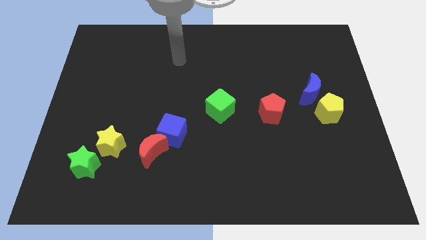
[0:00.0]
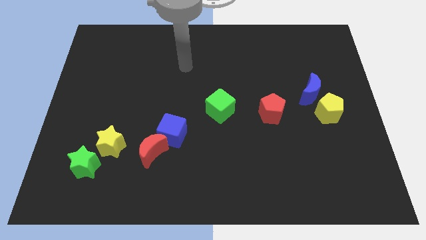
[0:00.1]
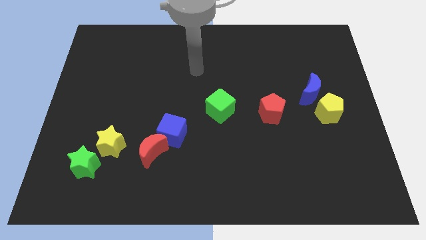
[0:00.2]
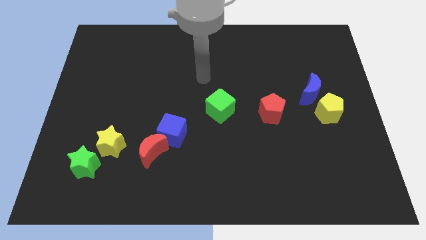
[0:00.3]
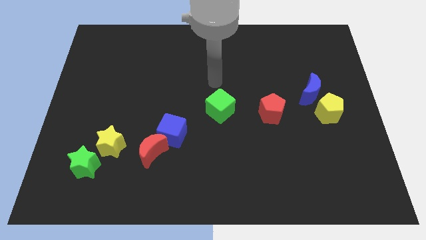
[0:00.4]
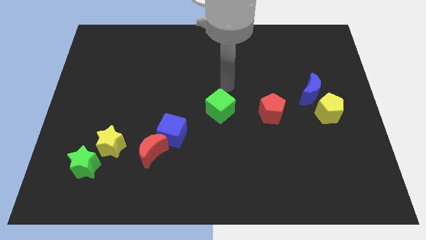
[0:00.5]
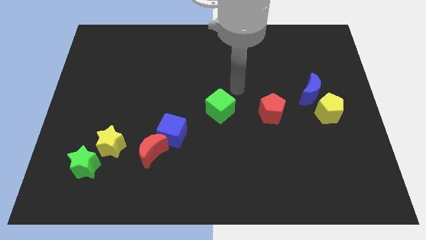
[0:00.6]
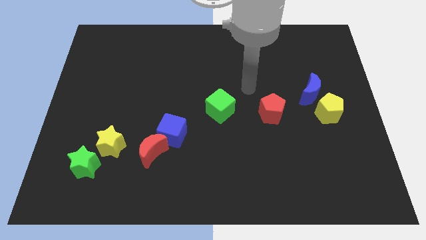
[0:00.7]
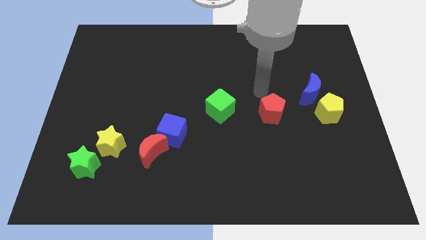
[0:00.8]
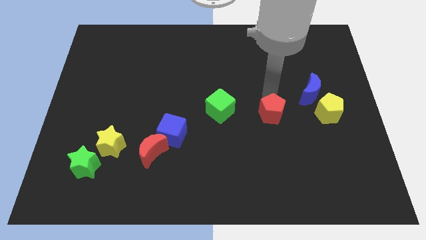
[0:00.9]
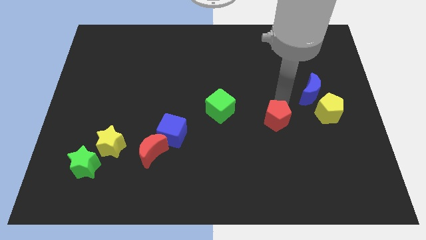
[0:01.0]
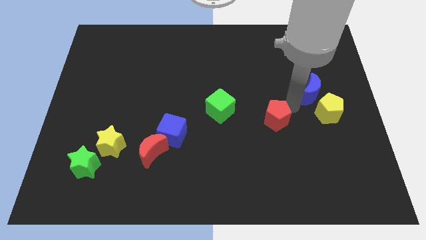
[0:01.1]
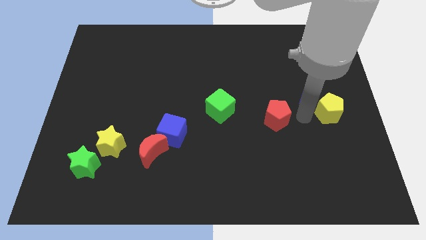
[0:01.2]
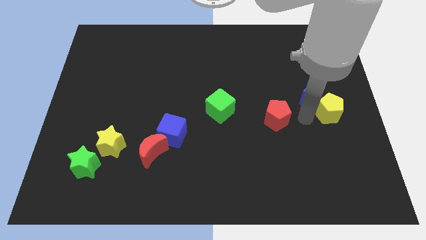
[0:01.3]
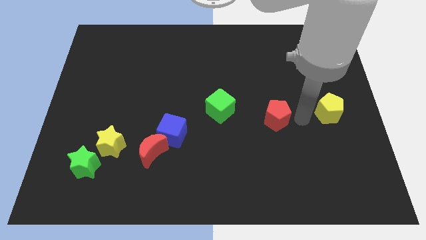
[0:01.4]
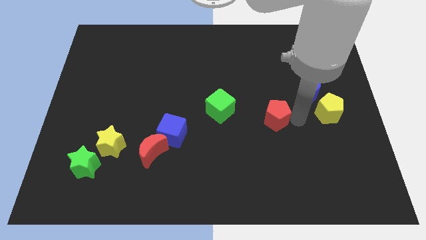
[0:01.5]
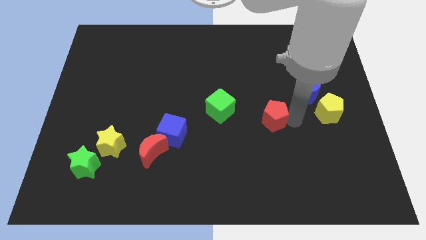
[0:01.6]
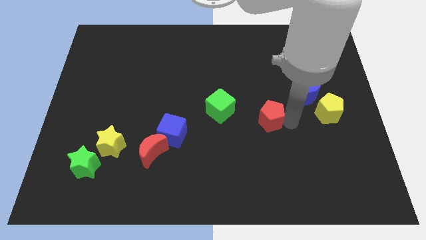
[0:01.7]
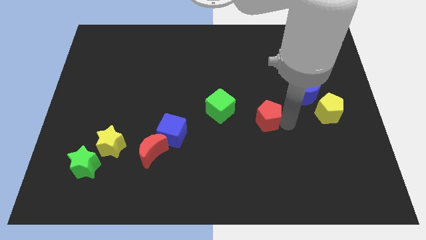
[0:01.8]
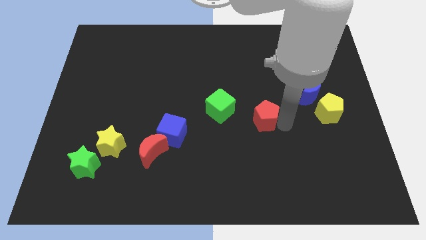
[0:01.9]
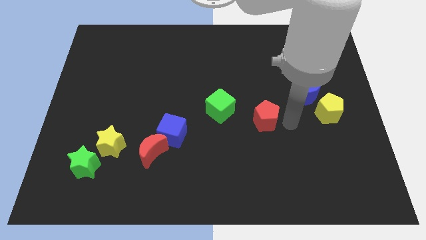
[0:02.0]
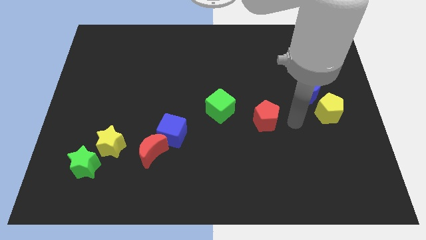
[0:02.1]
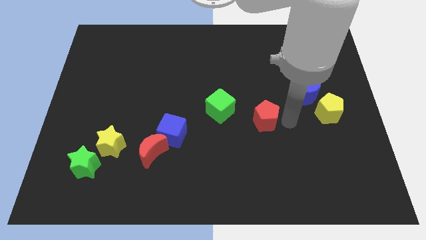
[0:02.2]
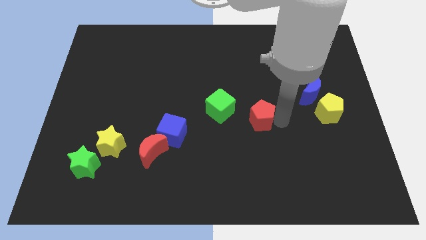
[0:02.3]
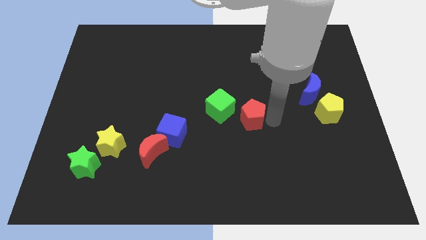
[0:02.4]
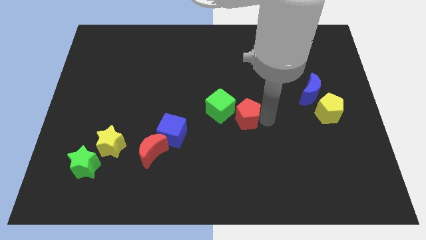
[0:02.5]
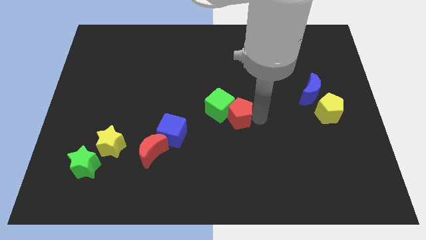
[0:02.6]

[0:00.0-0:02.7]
slide the red pentagon a little left

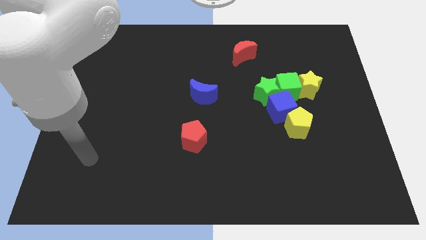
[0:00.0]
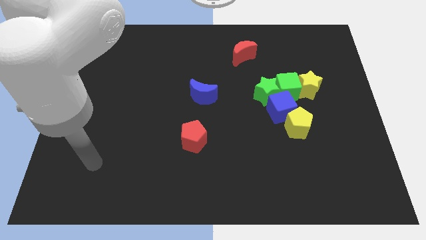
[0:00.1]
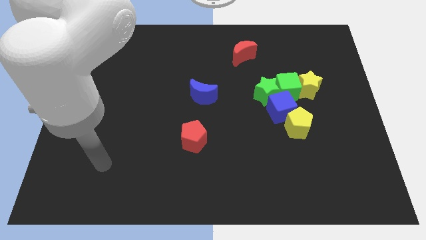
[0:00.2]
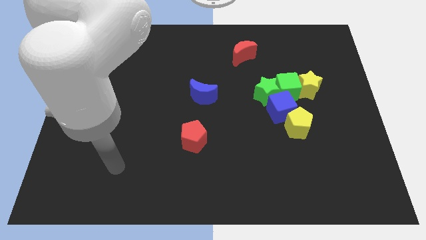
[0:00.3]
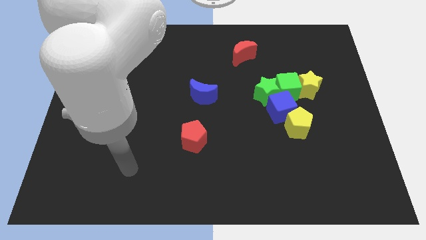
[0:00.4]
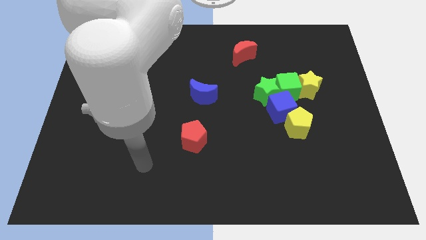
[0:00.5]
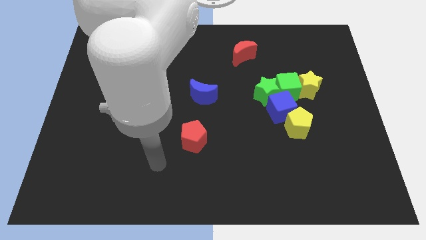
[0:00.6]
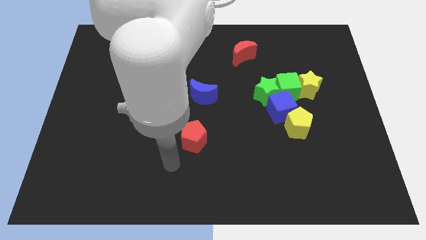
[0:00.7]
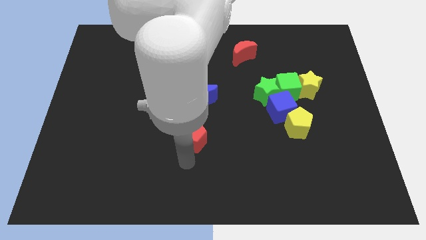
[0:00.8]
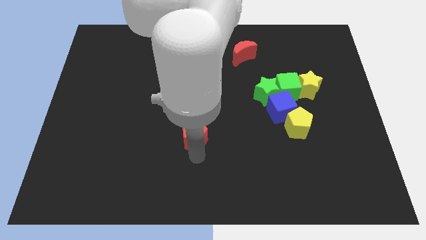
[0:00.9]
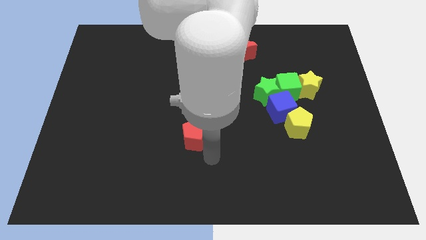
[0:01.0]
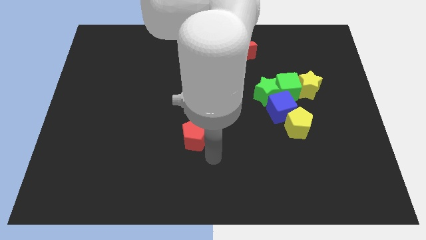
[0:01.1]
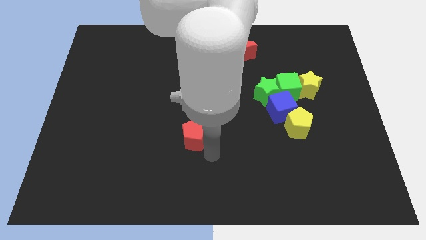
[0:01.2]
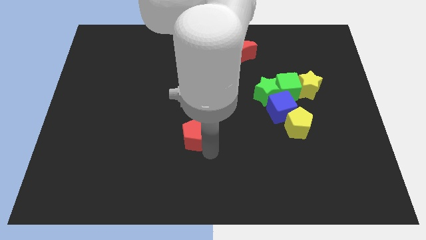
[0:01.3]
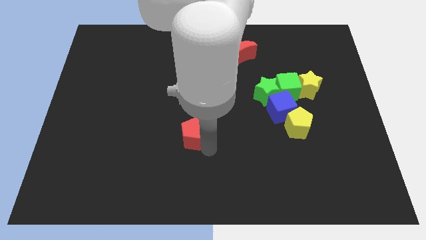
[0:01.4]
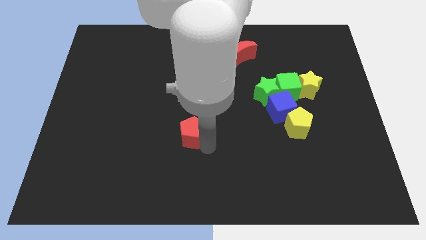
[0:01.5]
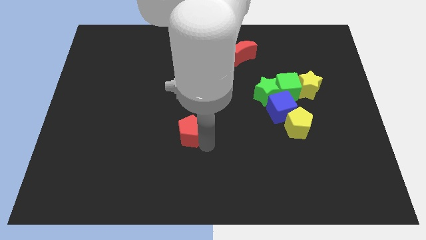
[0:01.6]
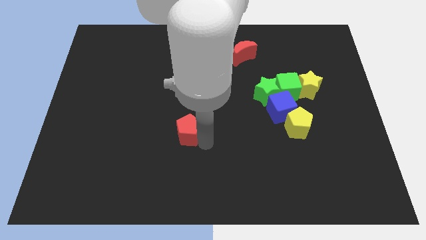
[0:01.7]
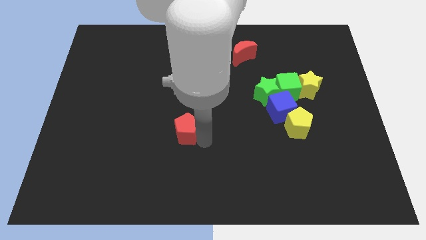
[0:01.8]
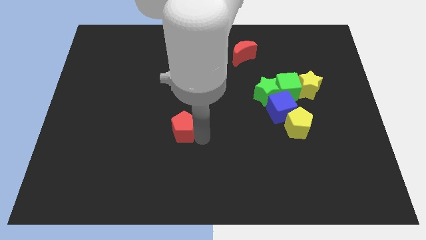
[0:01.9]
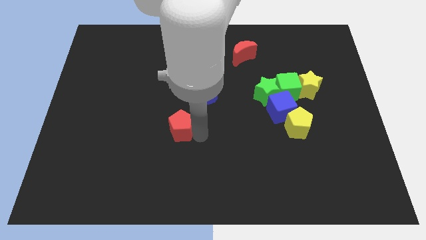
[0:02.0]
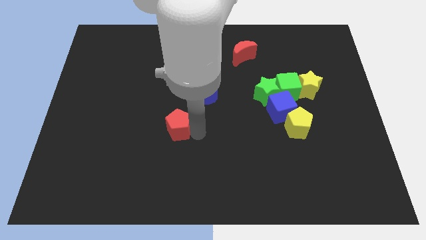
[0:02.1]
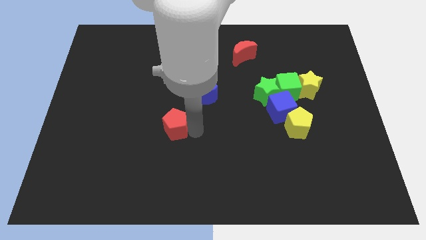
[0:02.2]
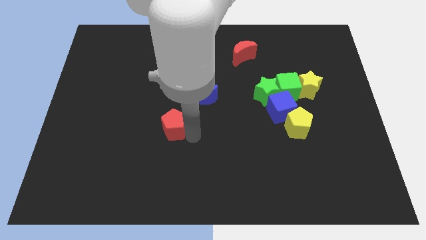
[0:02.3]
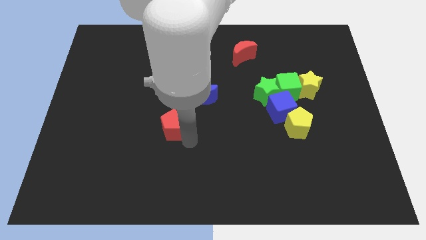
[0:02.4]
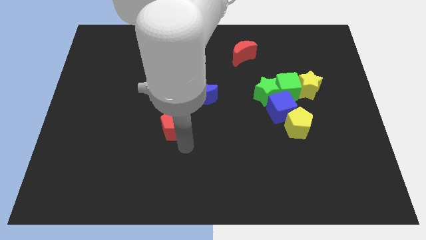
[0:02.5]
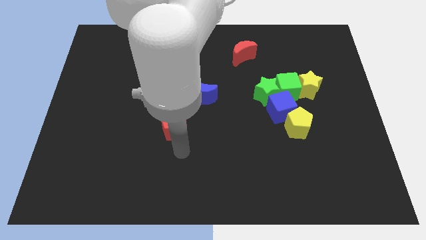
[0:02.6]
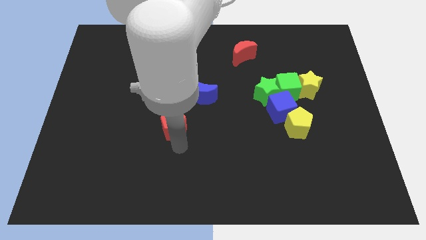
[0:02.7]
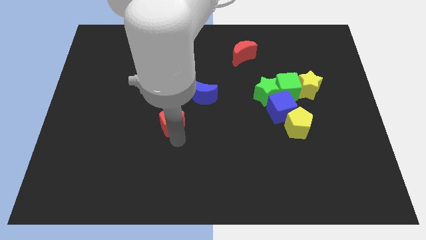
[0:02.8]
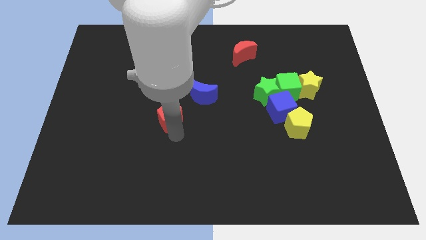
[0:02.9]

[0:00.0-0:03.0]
slide the red pentagon up and to the left somewhat

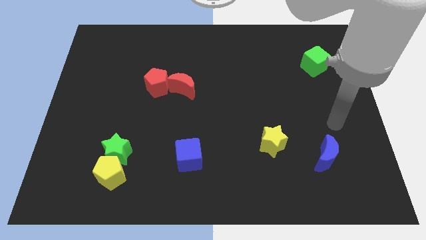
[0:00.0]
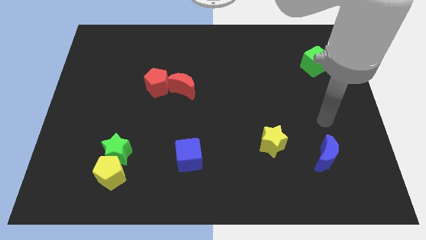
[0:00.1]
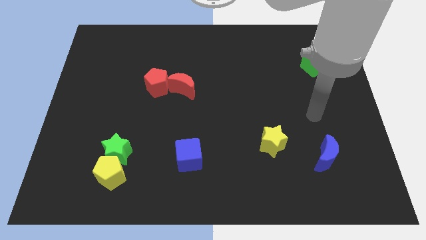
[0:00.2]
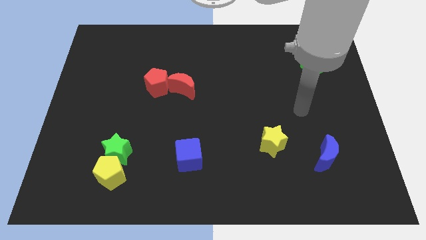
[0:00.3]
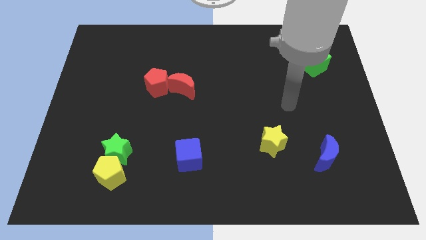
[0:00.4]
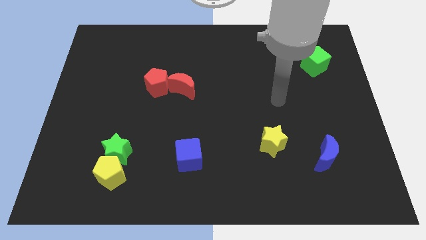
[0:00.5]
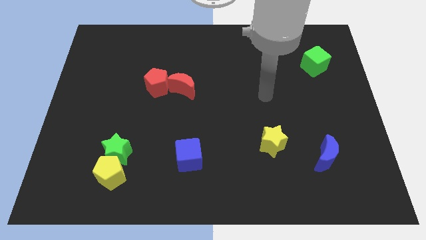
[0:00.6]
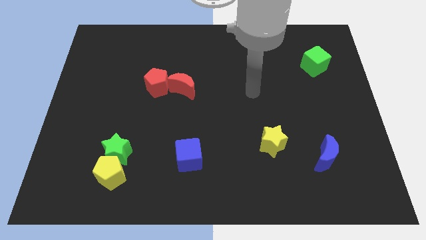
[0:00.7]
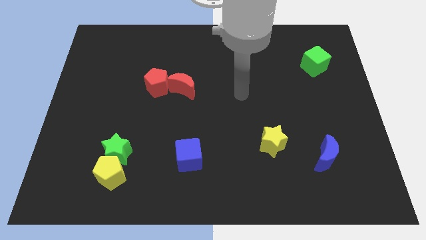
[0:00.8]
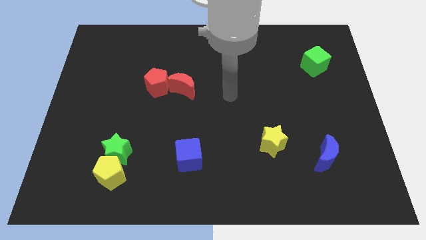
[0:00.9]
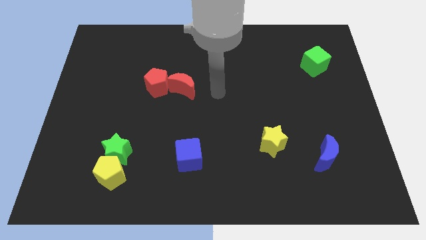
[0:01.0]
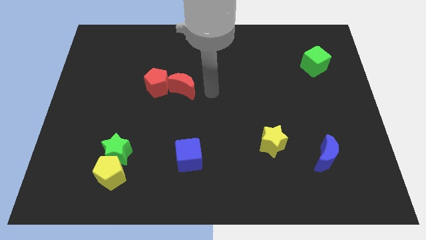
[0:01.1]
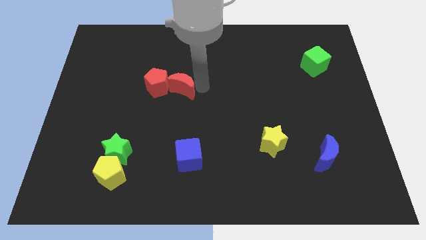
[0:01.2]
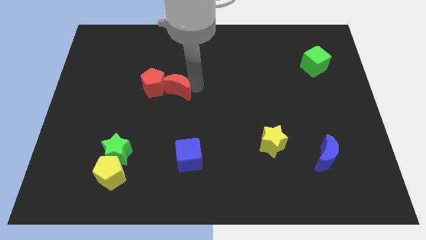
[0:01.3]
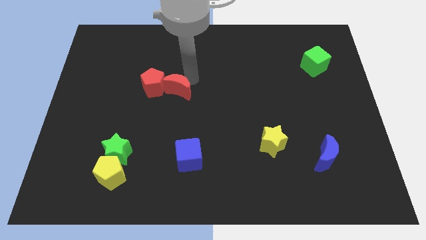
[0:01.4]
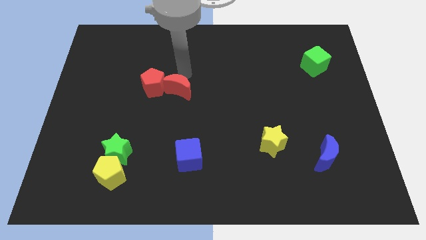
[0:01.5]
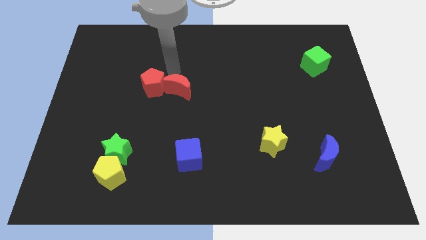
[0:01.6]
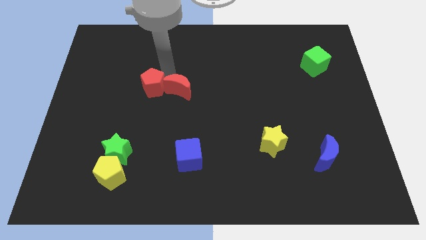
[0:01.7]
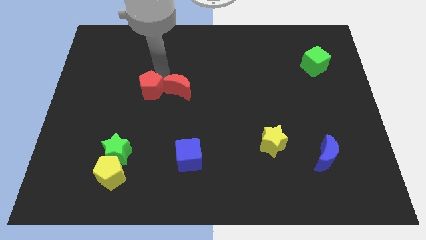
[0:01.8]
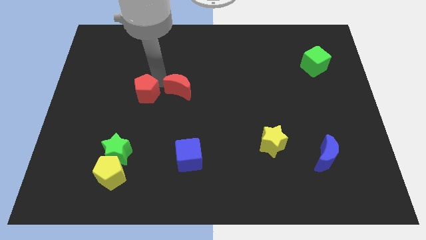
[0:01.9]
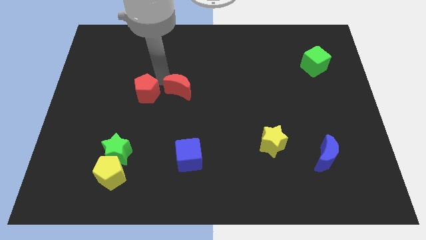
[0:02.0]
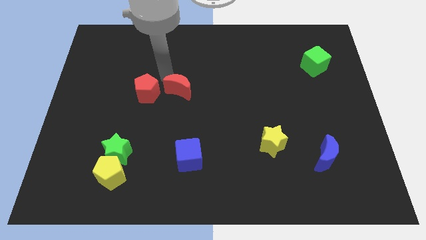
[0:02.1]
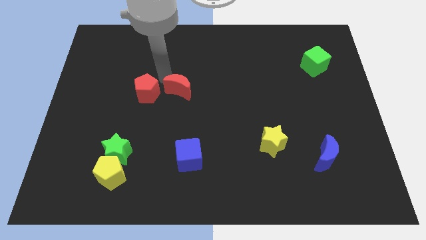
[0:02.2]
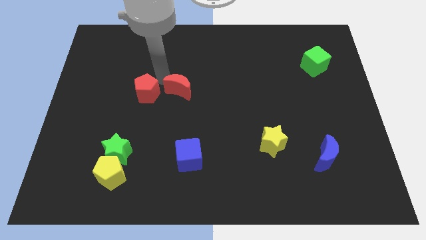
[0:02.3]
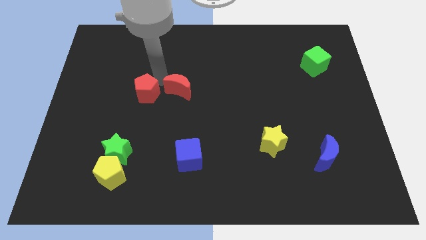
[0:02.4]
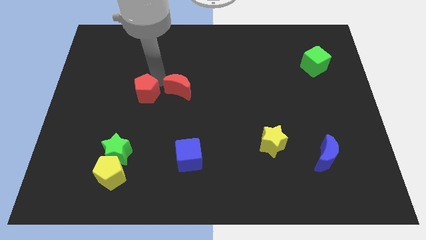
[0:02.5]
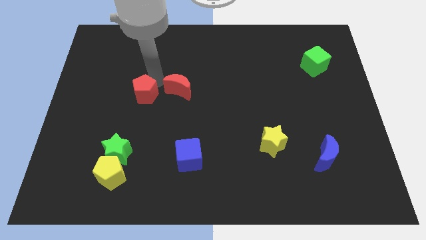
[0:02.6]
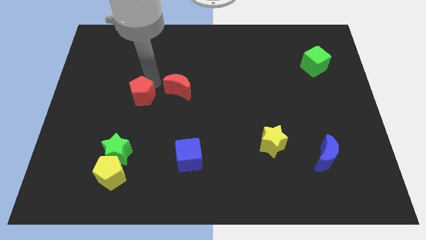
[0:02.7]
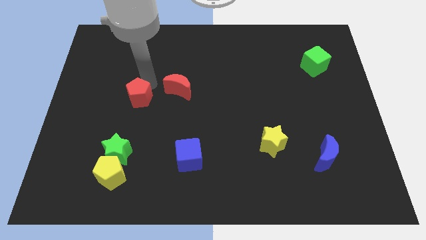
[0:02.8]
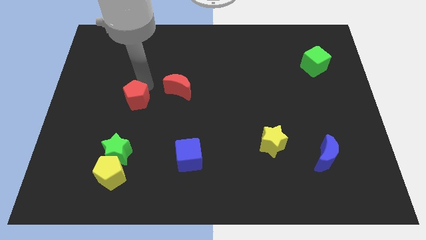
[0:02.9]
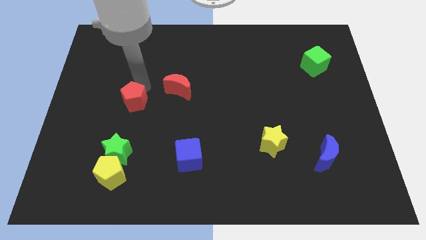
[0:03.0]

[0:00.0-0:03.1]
move the red pentagon a bit downwards and then to the left
